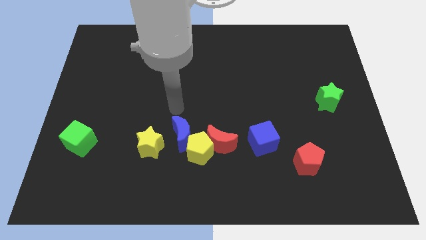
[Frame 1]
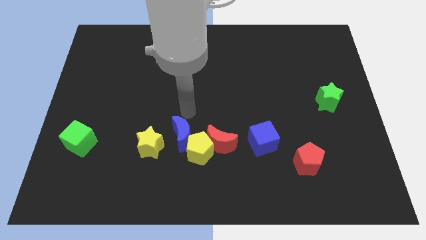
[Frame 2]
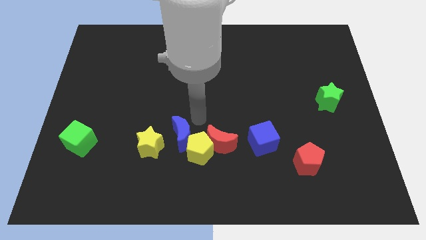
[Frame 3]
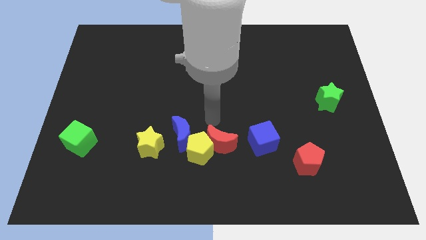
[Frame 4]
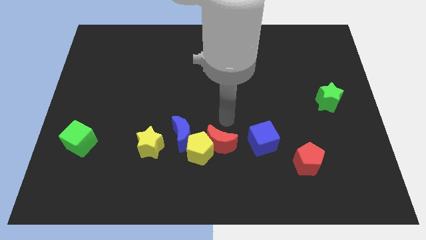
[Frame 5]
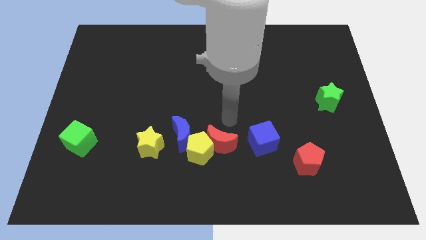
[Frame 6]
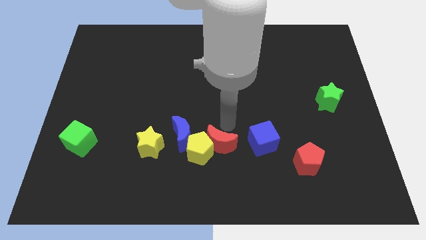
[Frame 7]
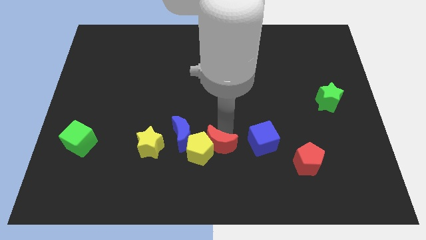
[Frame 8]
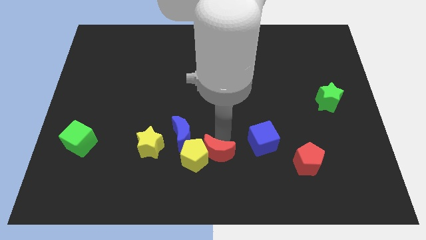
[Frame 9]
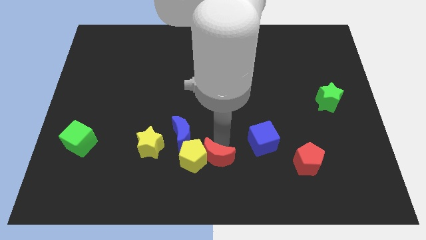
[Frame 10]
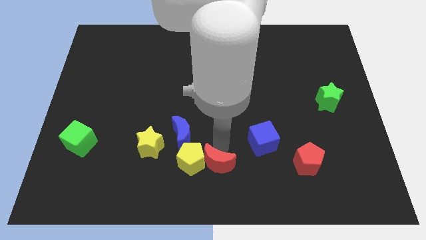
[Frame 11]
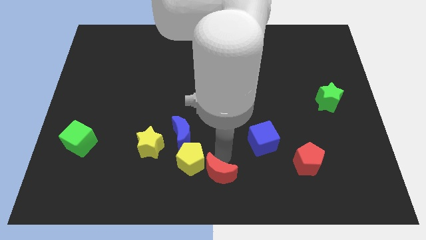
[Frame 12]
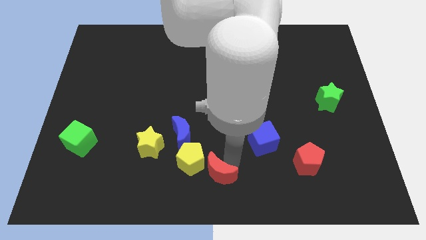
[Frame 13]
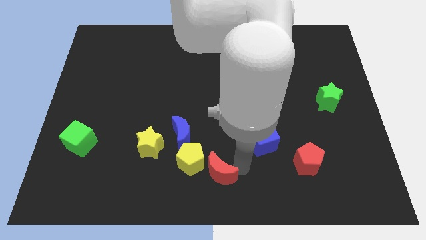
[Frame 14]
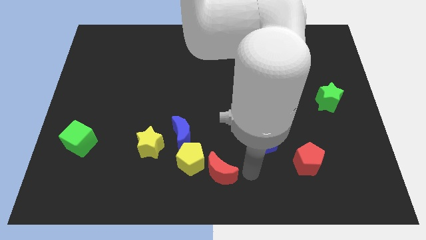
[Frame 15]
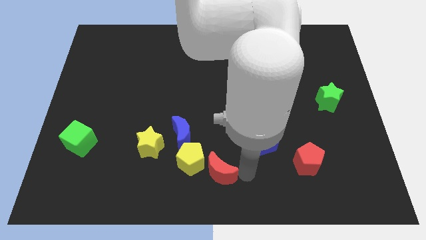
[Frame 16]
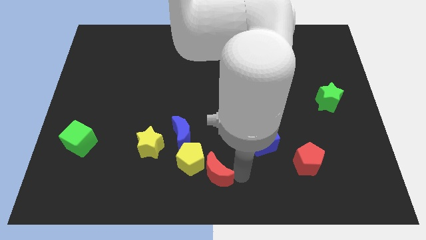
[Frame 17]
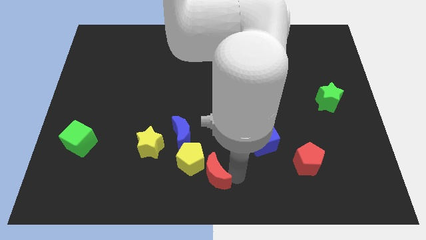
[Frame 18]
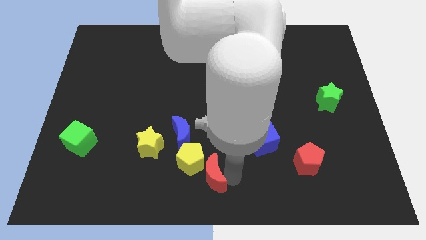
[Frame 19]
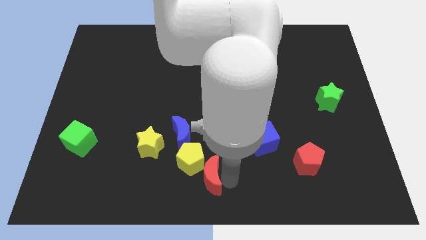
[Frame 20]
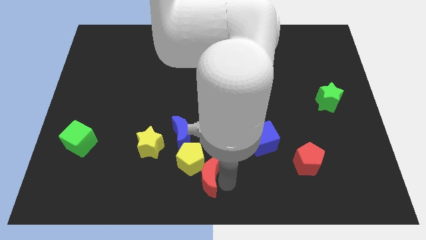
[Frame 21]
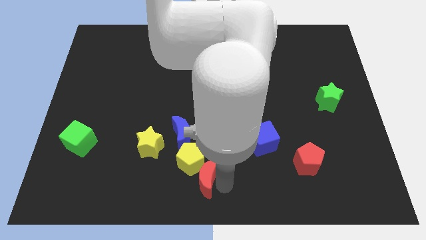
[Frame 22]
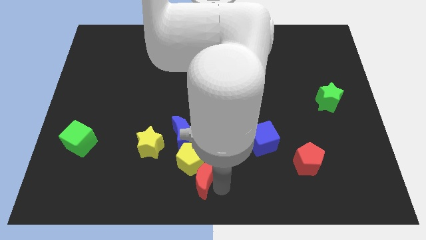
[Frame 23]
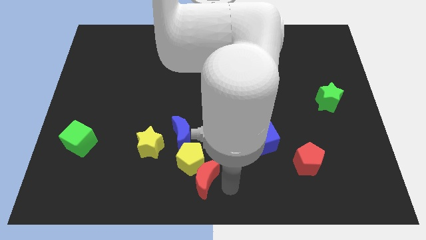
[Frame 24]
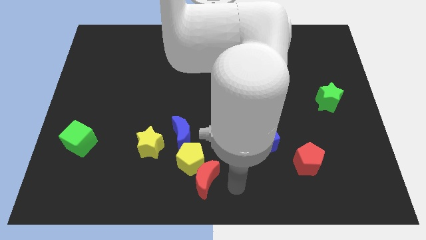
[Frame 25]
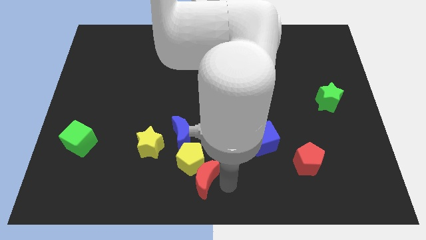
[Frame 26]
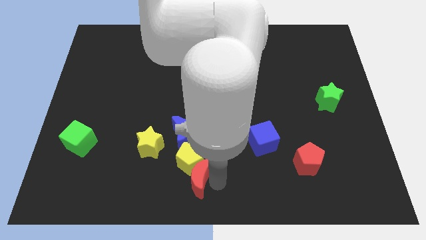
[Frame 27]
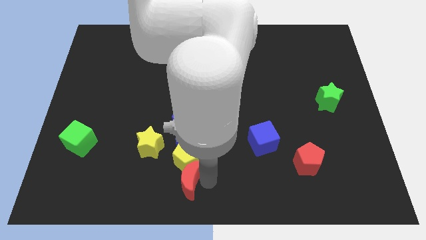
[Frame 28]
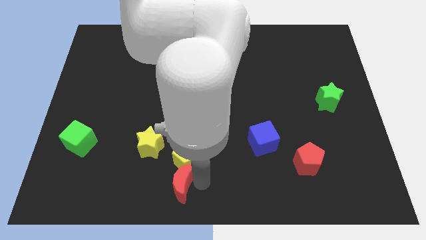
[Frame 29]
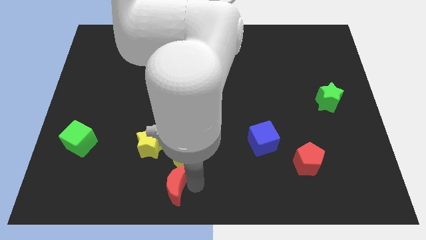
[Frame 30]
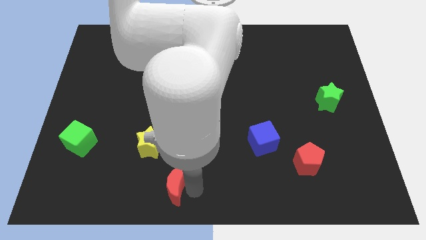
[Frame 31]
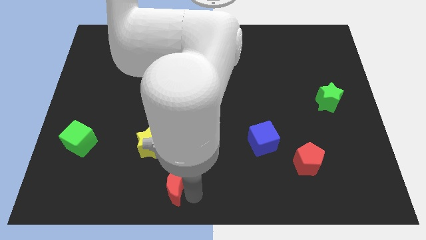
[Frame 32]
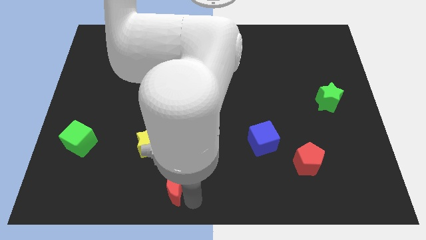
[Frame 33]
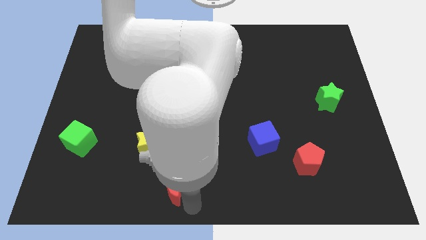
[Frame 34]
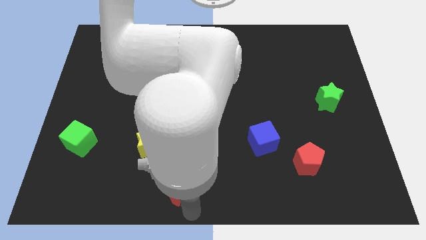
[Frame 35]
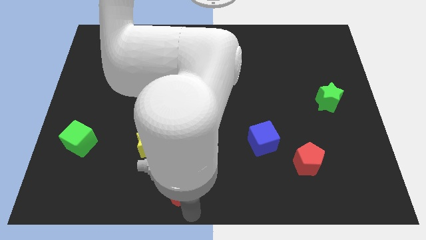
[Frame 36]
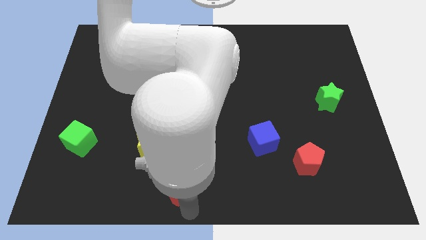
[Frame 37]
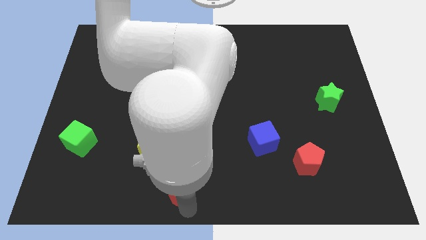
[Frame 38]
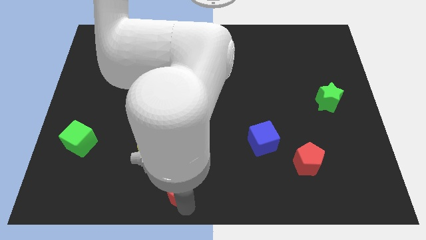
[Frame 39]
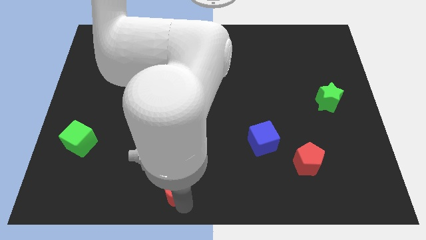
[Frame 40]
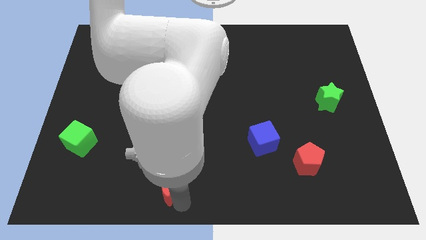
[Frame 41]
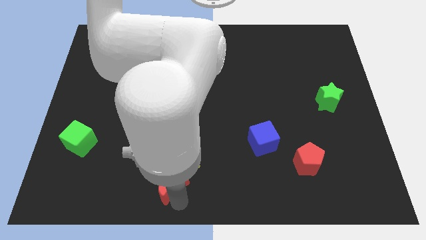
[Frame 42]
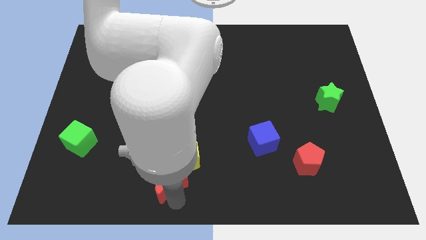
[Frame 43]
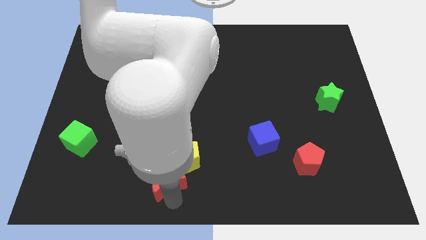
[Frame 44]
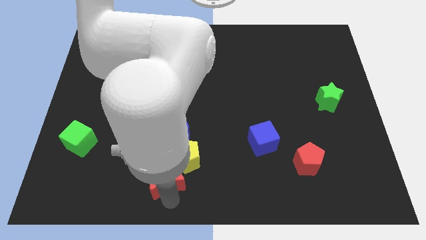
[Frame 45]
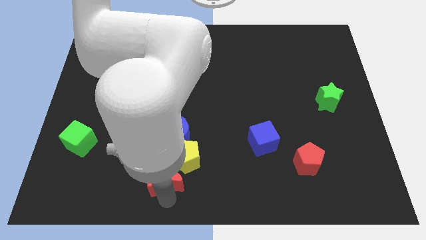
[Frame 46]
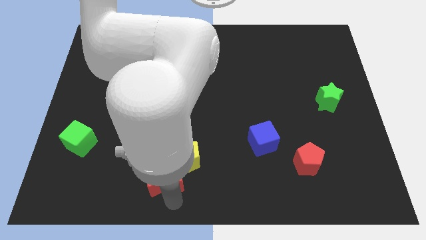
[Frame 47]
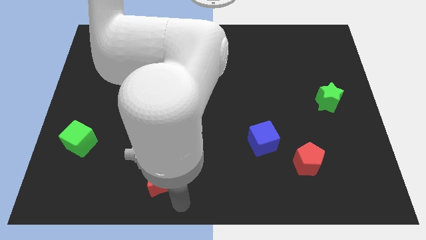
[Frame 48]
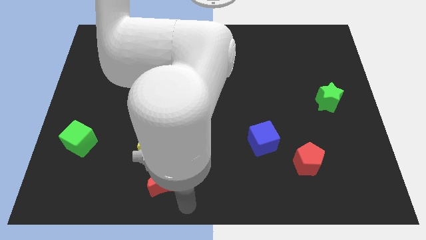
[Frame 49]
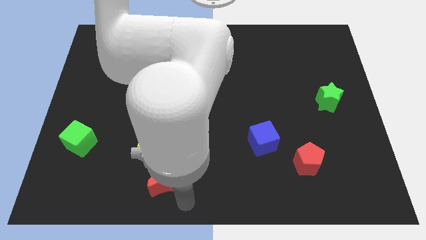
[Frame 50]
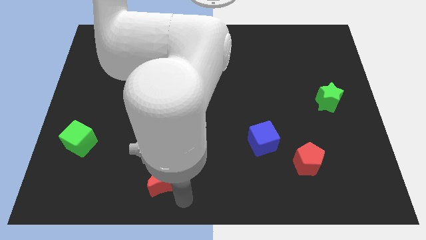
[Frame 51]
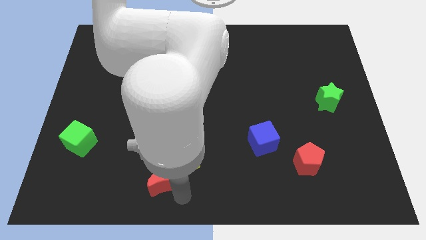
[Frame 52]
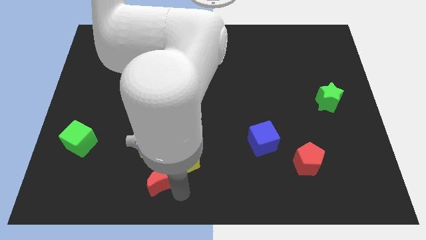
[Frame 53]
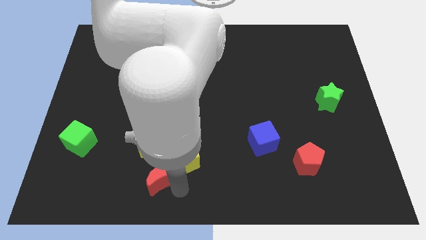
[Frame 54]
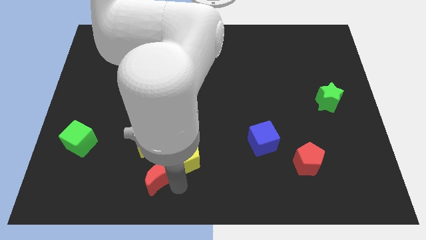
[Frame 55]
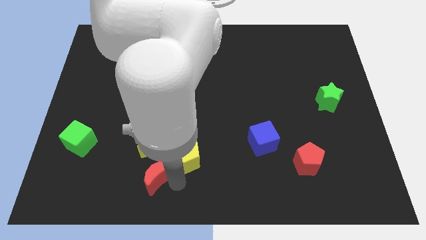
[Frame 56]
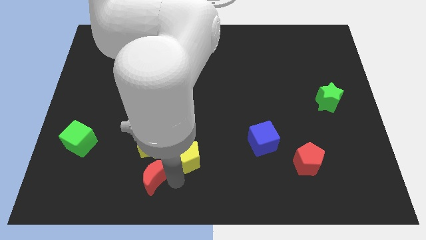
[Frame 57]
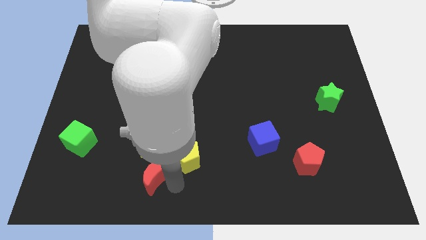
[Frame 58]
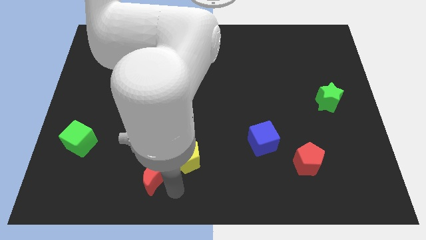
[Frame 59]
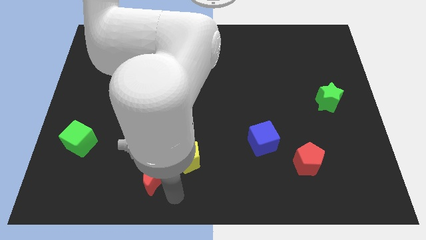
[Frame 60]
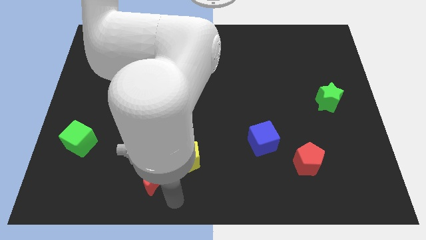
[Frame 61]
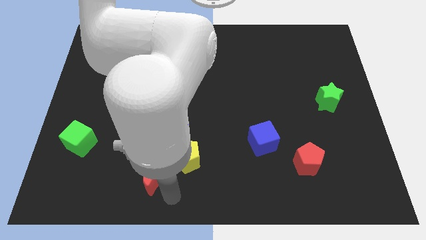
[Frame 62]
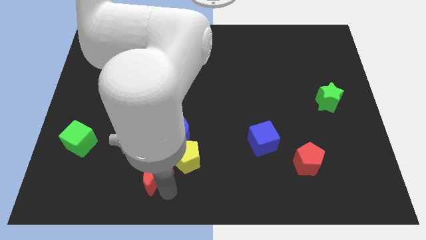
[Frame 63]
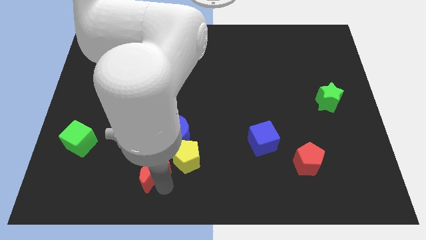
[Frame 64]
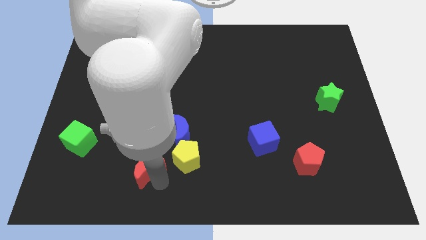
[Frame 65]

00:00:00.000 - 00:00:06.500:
put the red moon to the bottom left side of the yellow star
